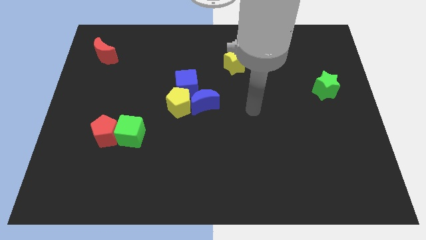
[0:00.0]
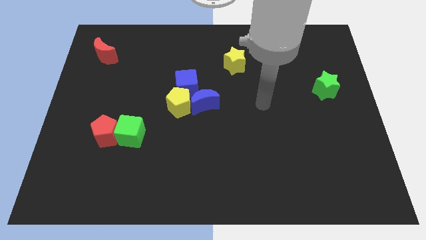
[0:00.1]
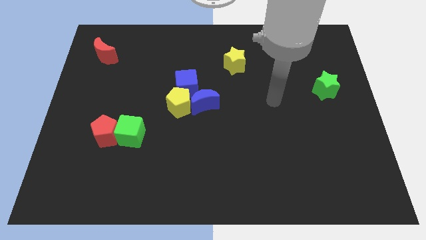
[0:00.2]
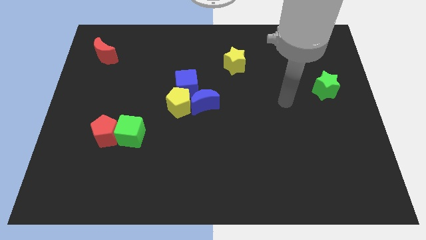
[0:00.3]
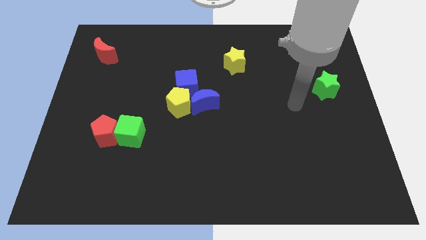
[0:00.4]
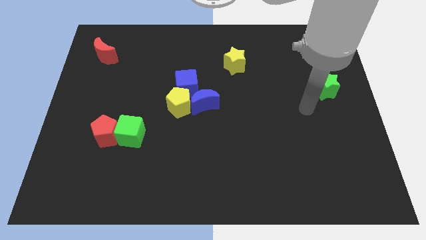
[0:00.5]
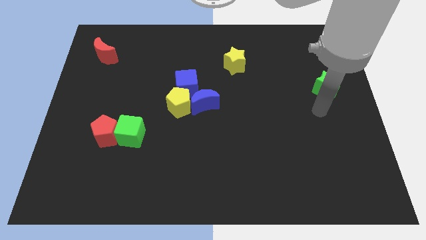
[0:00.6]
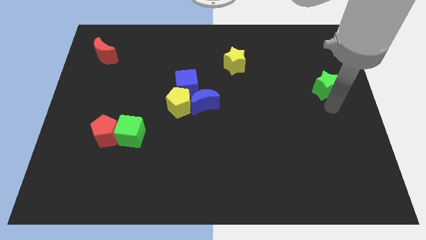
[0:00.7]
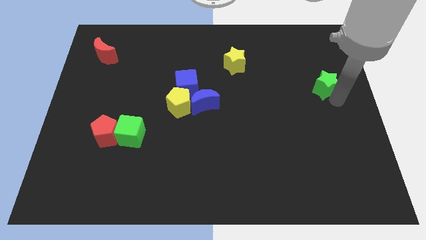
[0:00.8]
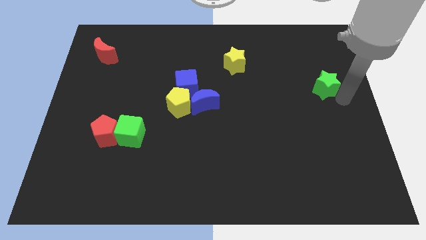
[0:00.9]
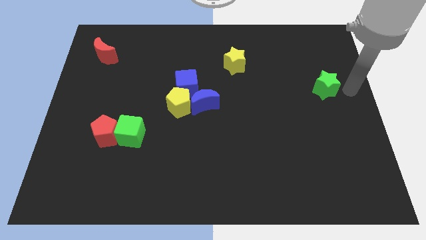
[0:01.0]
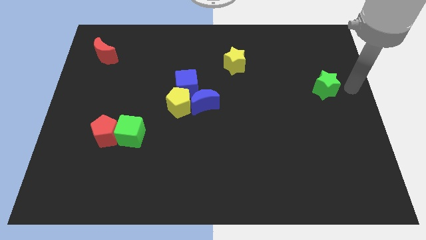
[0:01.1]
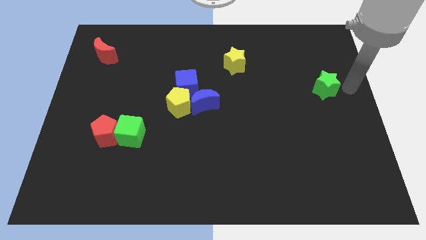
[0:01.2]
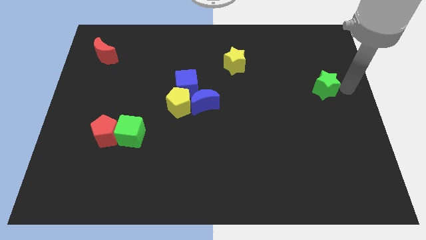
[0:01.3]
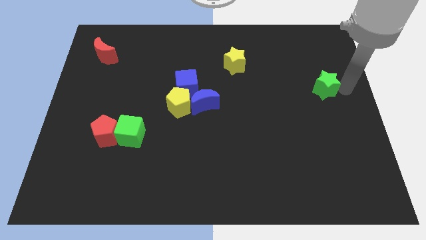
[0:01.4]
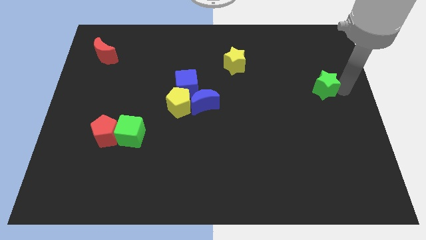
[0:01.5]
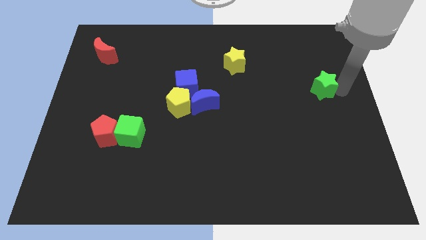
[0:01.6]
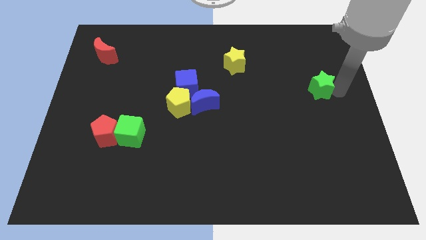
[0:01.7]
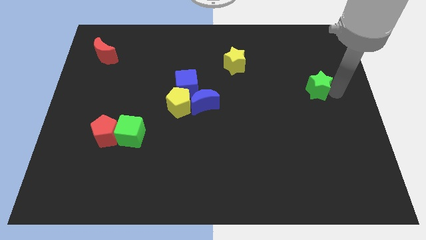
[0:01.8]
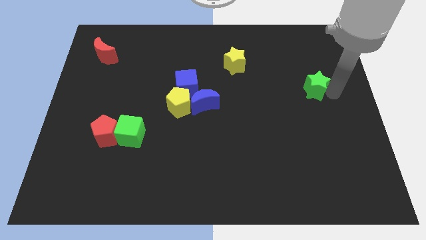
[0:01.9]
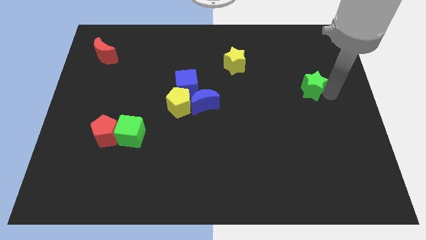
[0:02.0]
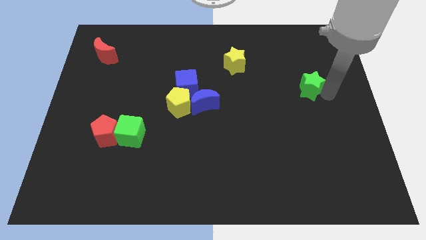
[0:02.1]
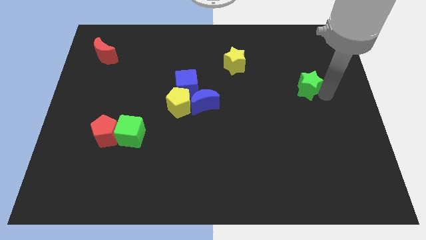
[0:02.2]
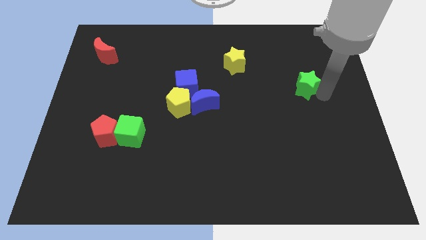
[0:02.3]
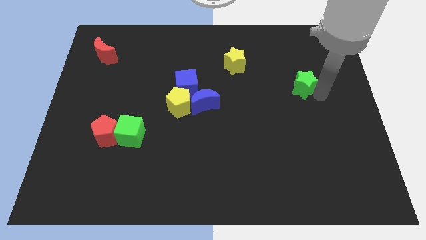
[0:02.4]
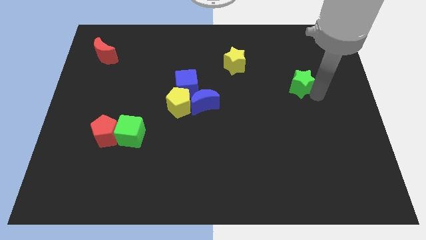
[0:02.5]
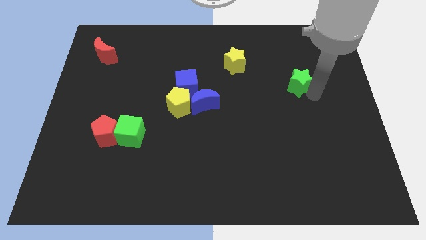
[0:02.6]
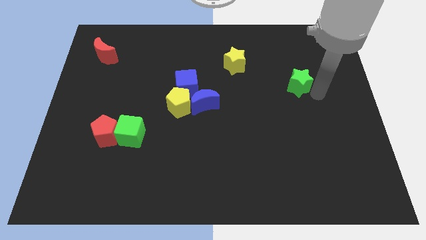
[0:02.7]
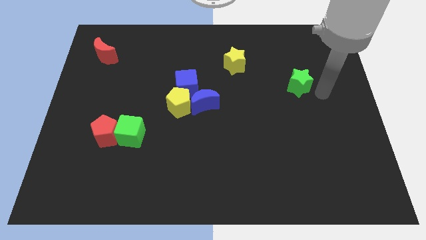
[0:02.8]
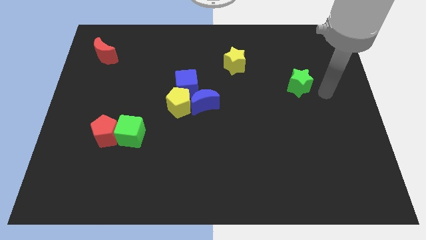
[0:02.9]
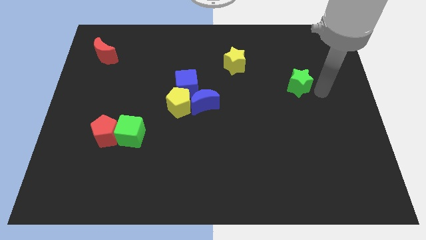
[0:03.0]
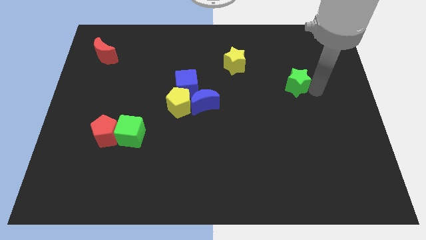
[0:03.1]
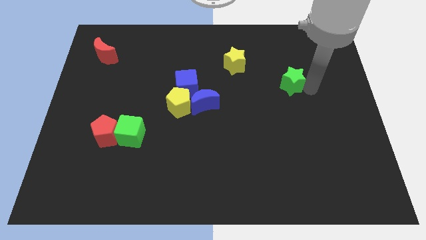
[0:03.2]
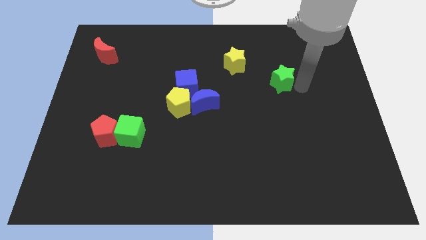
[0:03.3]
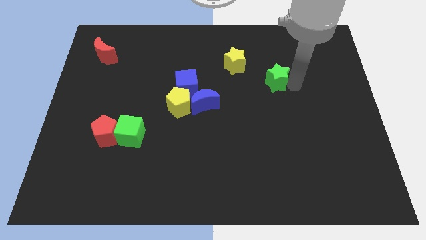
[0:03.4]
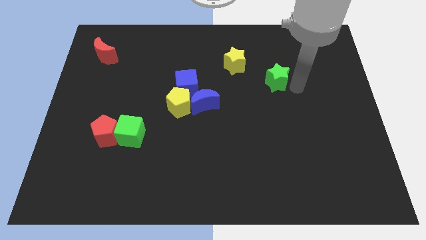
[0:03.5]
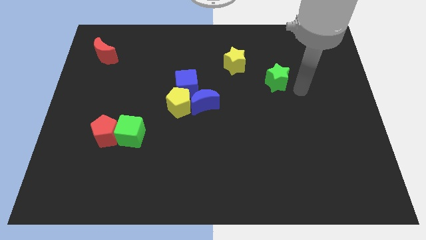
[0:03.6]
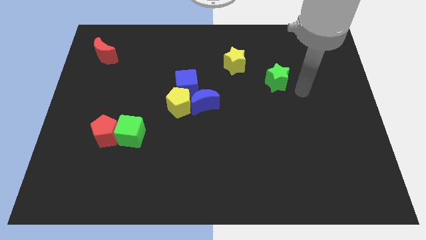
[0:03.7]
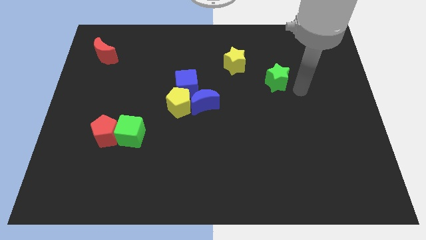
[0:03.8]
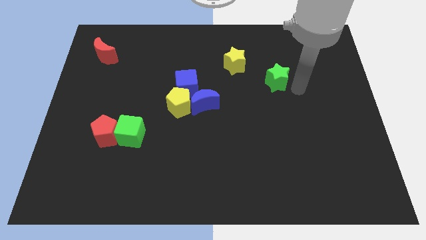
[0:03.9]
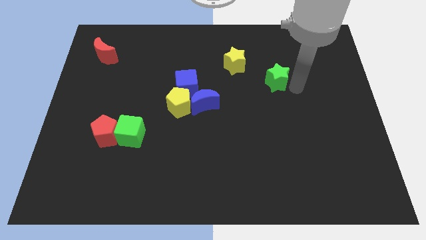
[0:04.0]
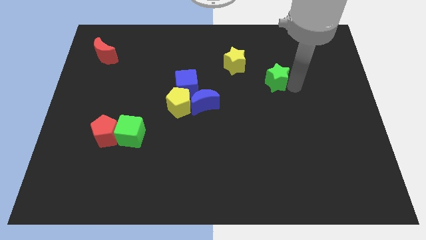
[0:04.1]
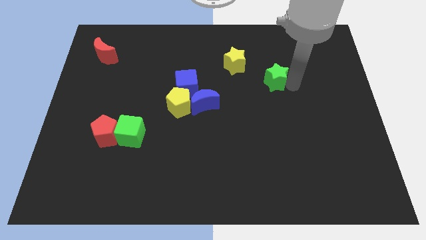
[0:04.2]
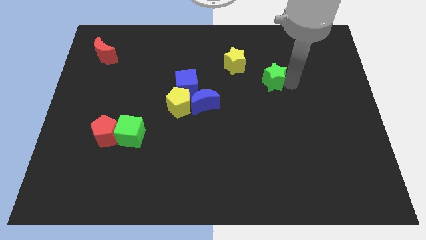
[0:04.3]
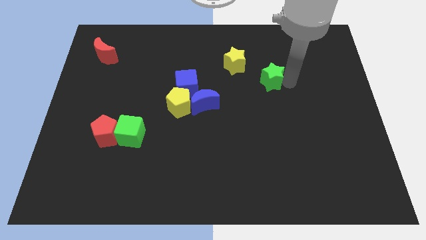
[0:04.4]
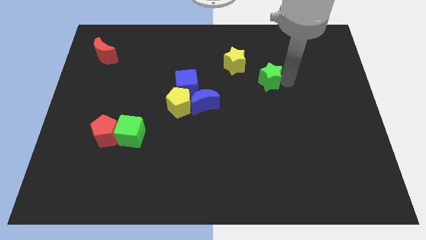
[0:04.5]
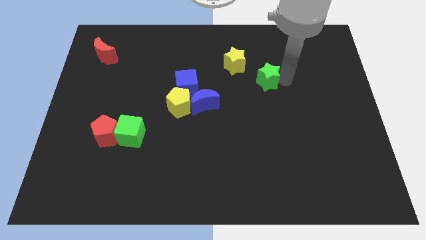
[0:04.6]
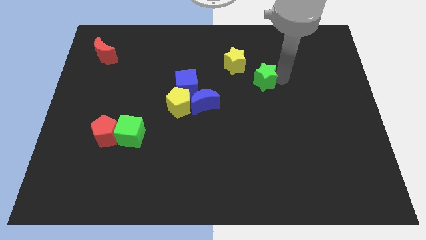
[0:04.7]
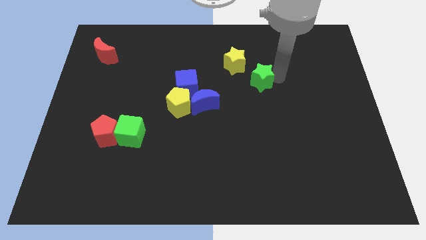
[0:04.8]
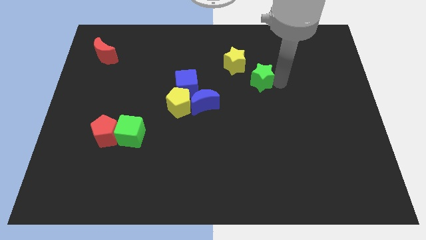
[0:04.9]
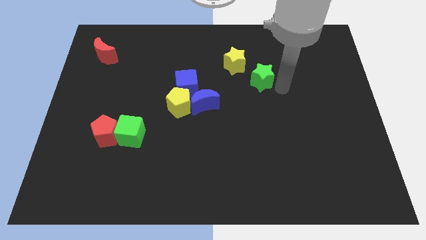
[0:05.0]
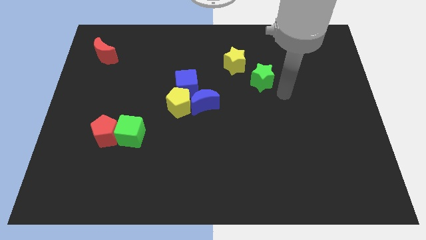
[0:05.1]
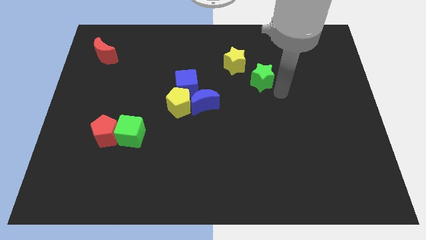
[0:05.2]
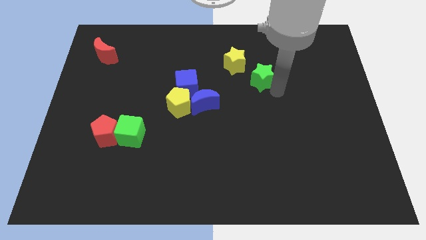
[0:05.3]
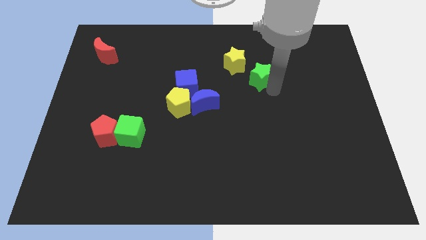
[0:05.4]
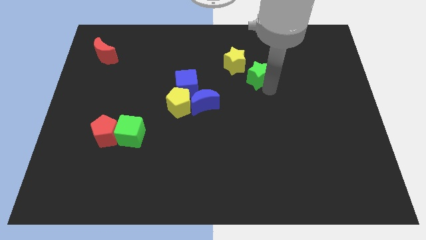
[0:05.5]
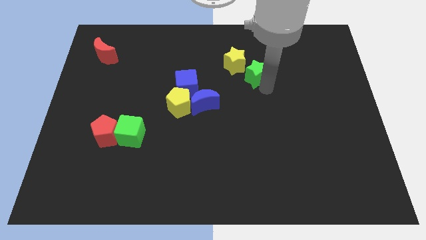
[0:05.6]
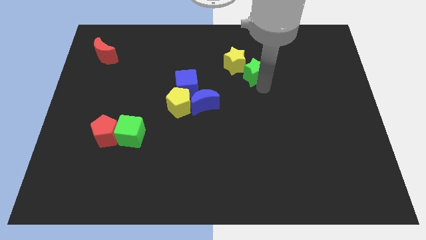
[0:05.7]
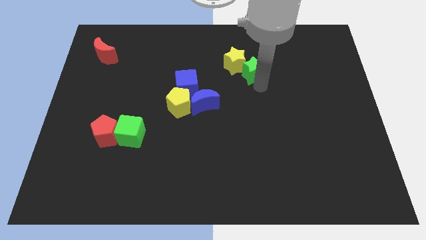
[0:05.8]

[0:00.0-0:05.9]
put the green star close to the yellow star

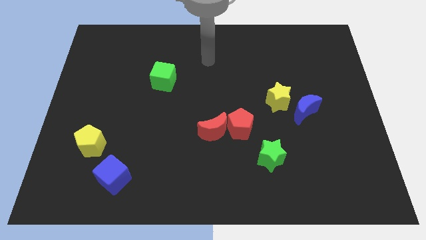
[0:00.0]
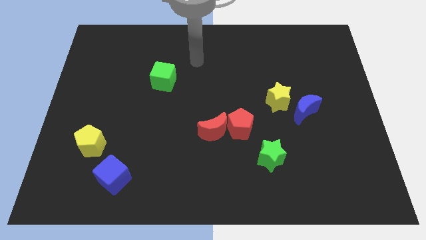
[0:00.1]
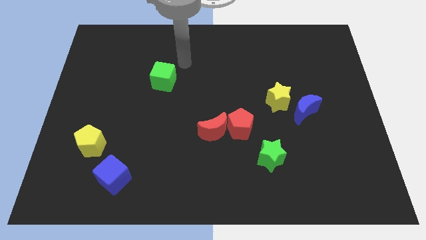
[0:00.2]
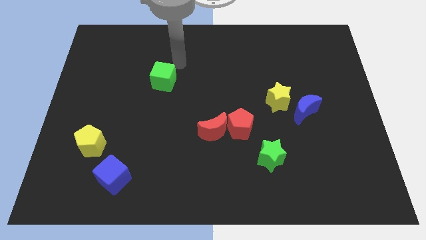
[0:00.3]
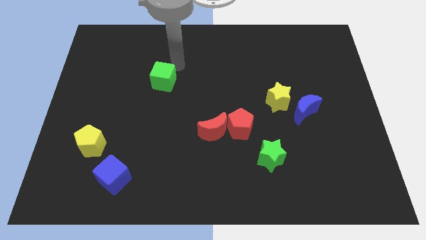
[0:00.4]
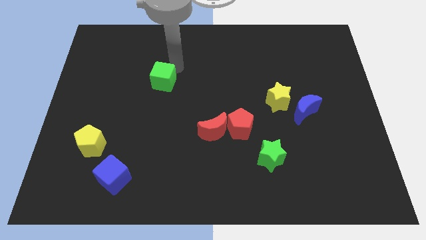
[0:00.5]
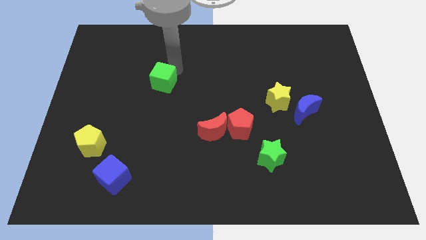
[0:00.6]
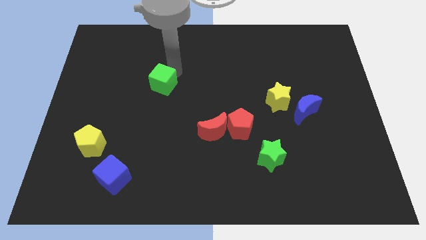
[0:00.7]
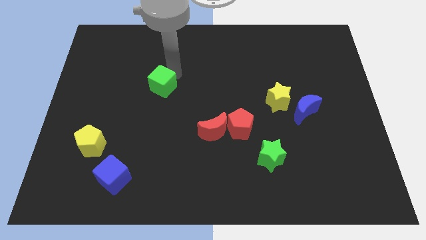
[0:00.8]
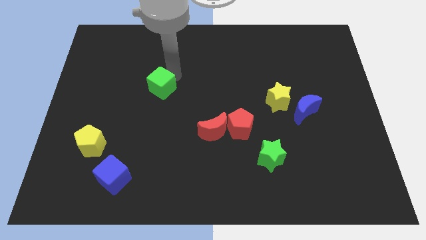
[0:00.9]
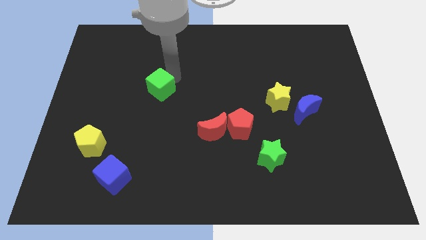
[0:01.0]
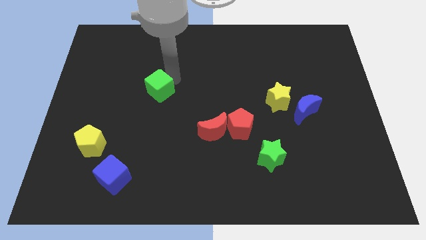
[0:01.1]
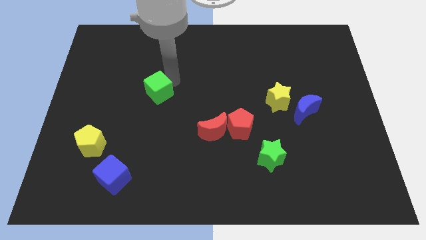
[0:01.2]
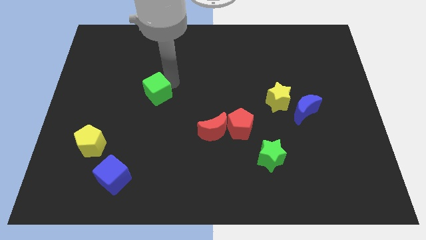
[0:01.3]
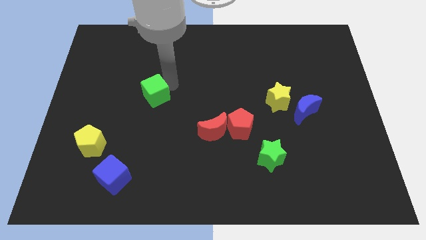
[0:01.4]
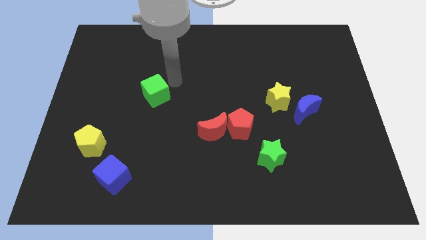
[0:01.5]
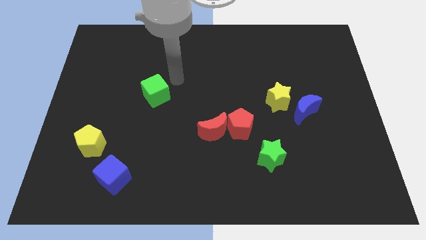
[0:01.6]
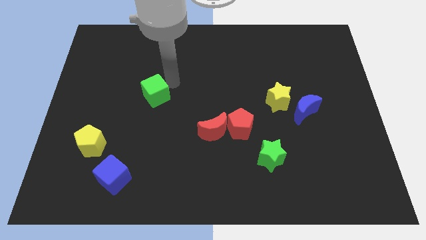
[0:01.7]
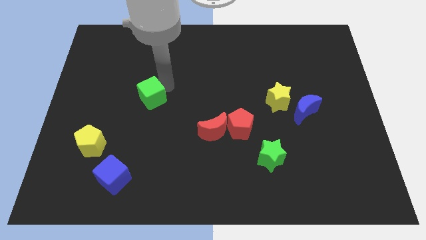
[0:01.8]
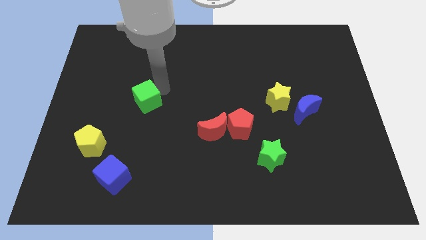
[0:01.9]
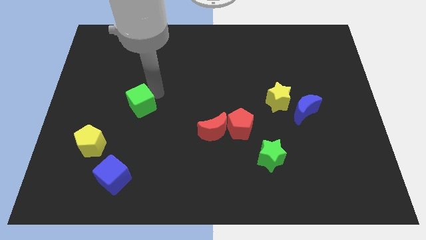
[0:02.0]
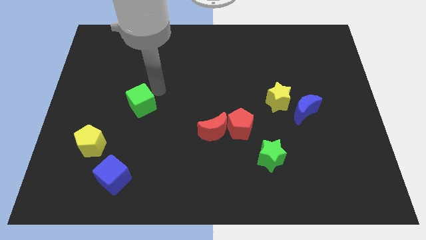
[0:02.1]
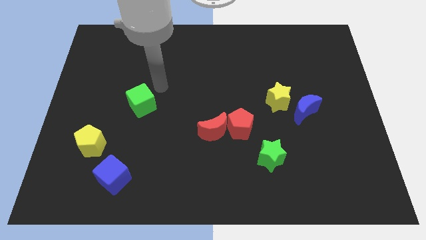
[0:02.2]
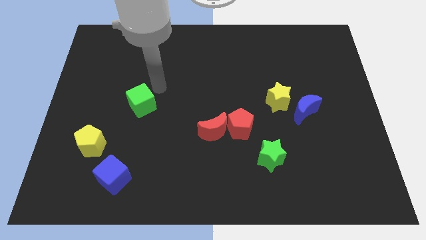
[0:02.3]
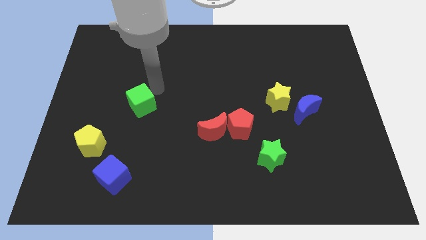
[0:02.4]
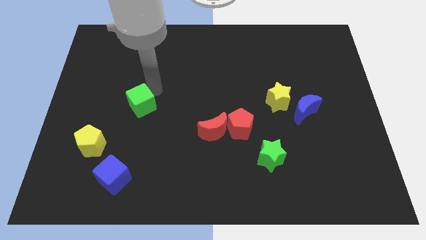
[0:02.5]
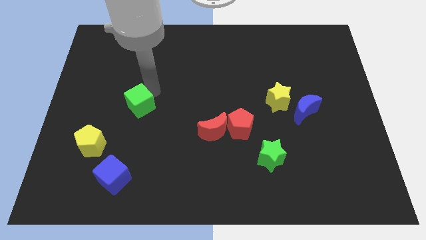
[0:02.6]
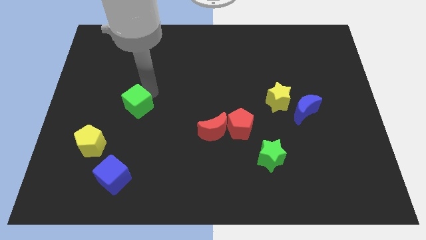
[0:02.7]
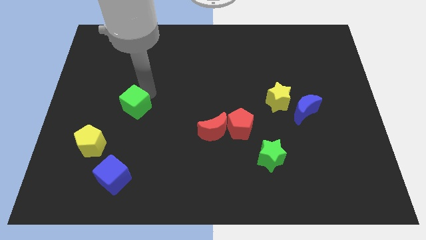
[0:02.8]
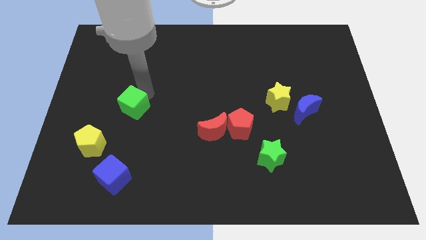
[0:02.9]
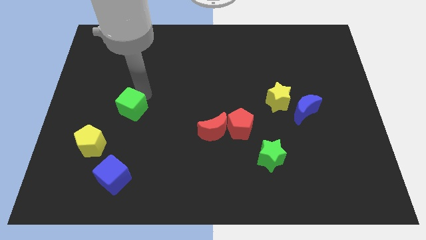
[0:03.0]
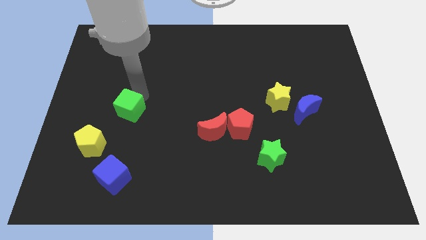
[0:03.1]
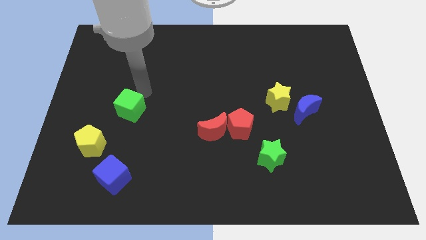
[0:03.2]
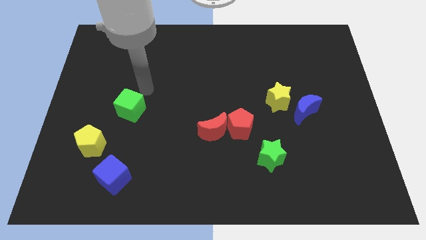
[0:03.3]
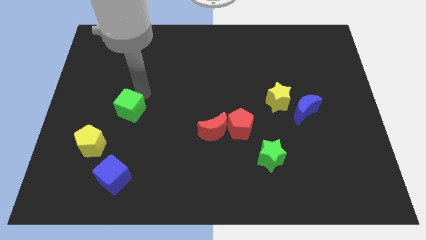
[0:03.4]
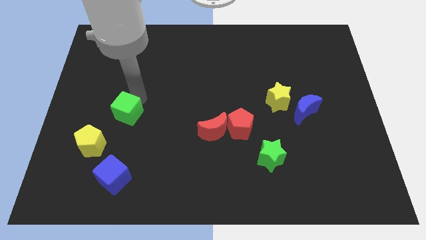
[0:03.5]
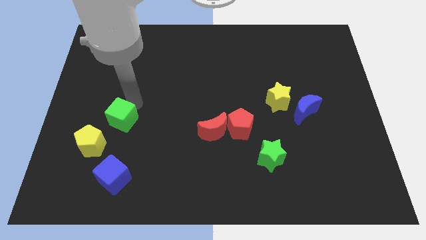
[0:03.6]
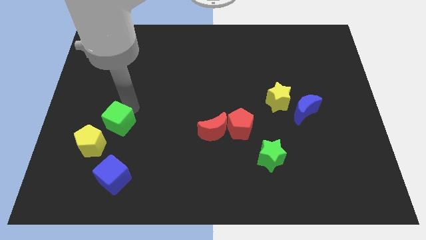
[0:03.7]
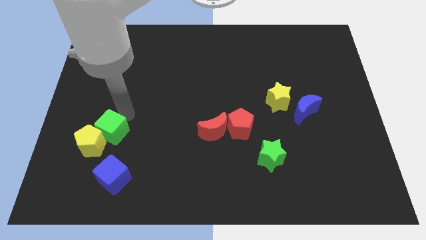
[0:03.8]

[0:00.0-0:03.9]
push the green cube next to the yellow pentagon
